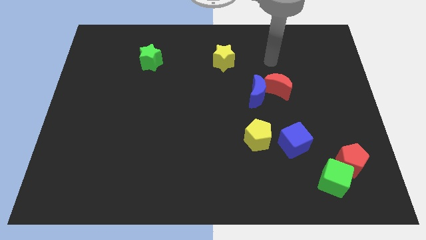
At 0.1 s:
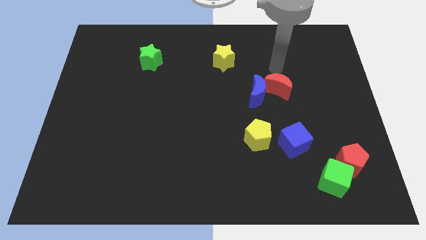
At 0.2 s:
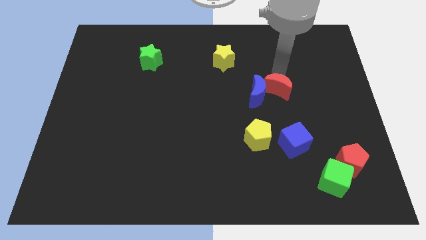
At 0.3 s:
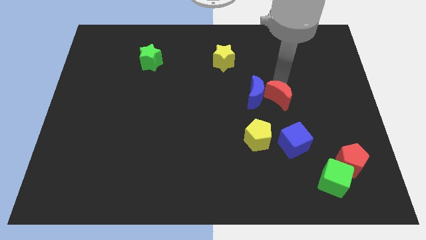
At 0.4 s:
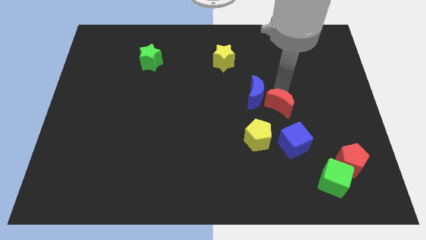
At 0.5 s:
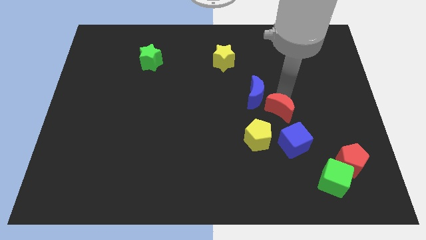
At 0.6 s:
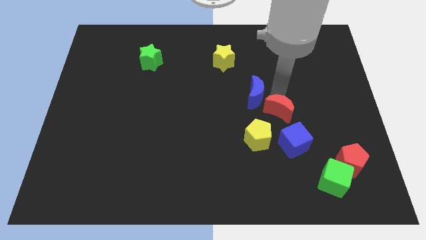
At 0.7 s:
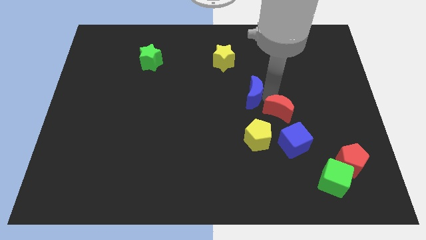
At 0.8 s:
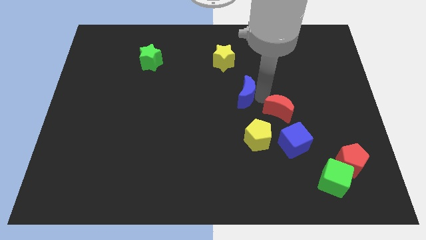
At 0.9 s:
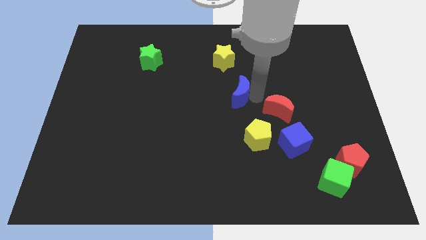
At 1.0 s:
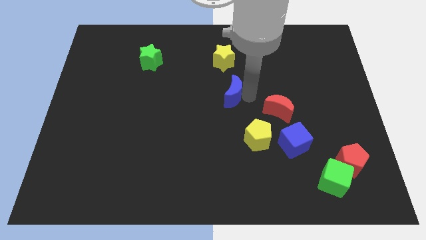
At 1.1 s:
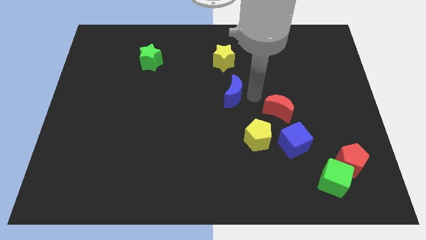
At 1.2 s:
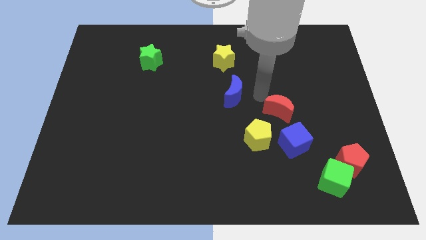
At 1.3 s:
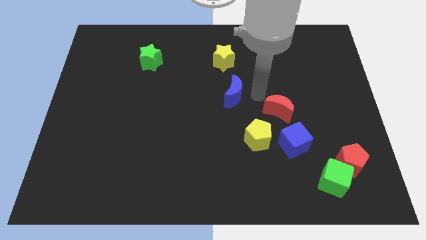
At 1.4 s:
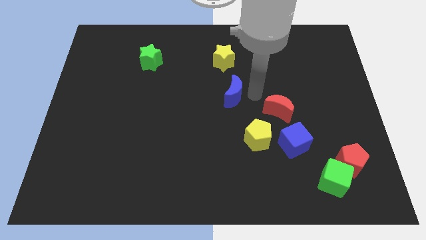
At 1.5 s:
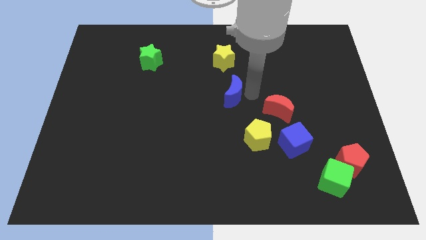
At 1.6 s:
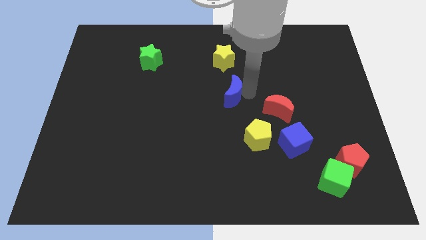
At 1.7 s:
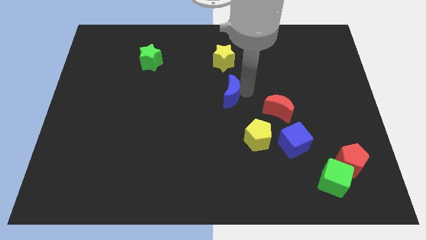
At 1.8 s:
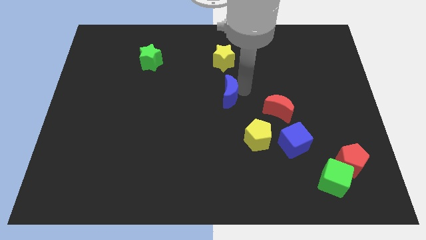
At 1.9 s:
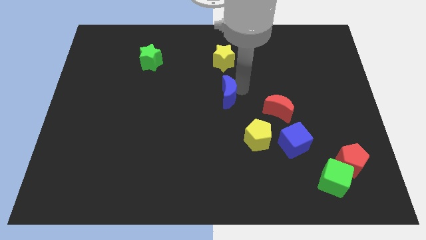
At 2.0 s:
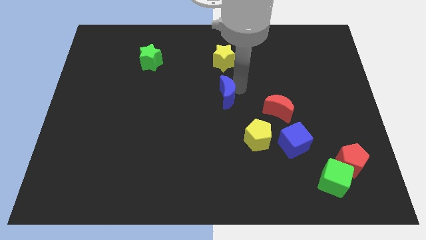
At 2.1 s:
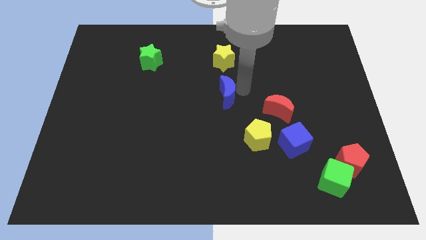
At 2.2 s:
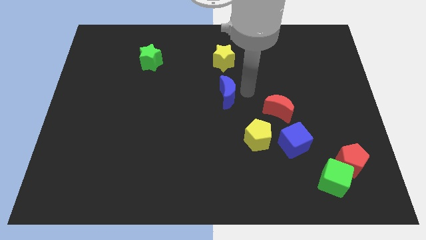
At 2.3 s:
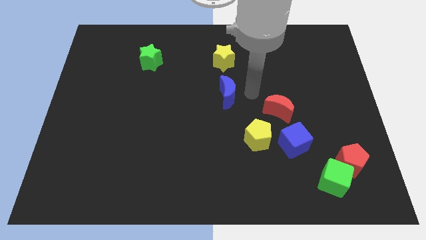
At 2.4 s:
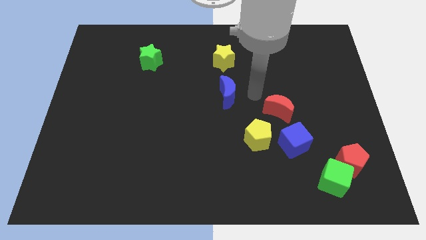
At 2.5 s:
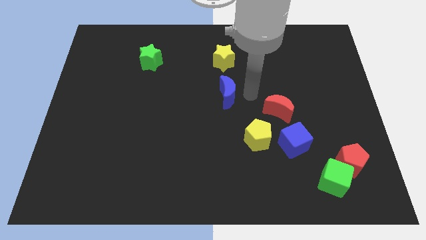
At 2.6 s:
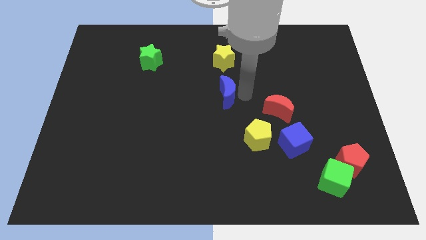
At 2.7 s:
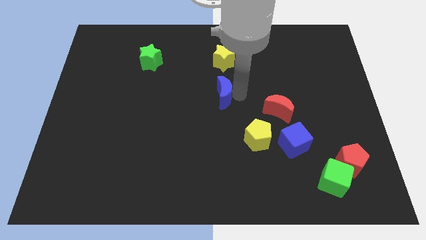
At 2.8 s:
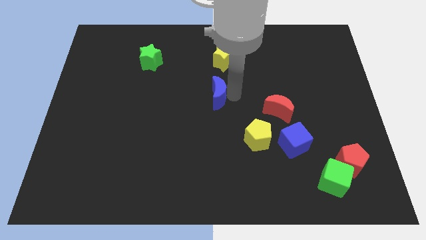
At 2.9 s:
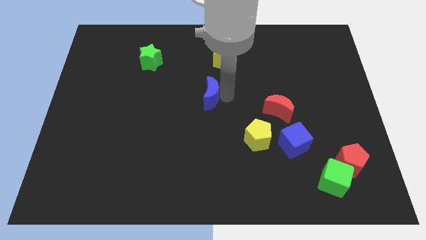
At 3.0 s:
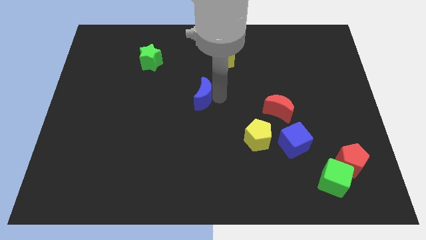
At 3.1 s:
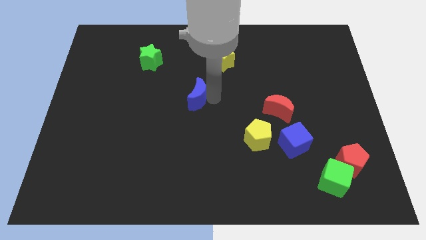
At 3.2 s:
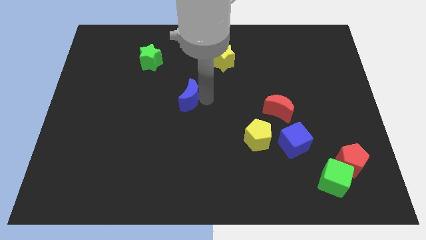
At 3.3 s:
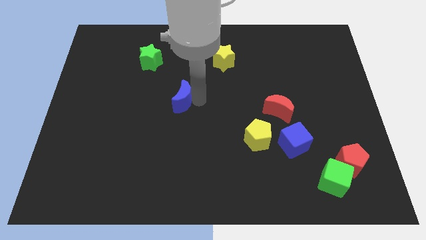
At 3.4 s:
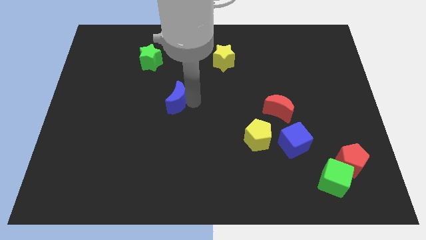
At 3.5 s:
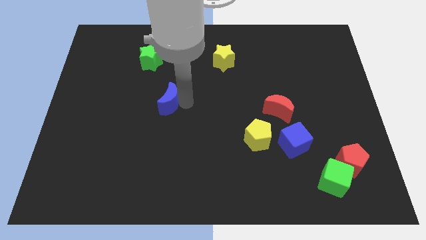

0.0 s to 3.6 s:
slide the blue moon to the left

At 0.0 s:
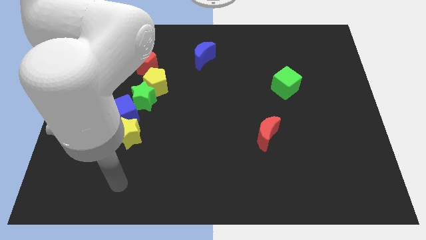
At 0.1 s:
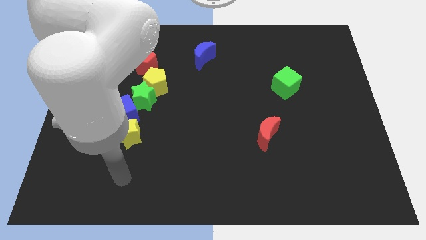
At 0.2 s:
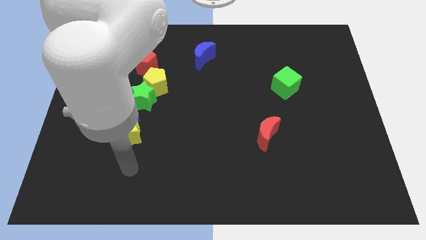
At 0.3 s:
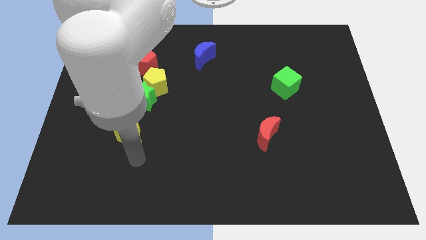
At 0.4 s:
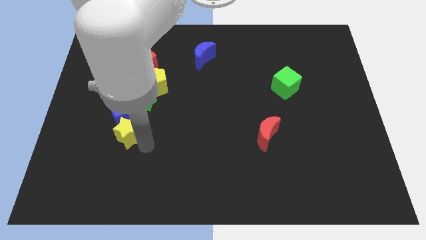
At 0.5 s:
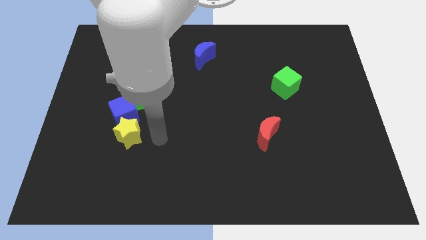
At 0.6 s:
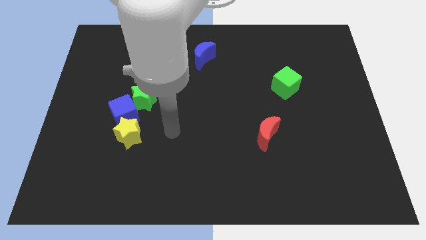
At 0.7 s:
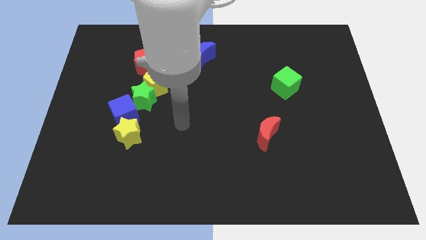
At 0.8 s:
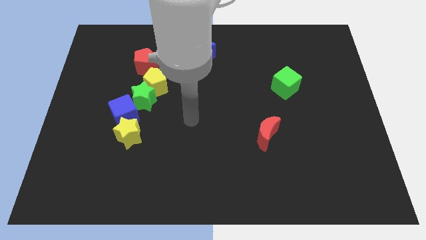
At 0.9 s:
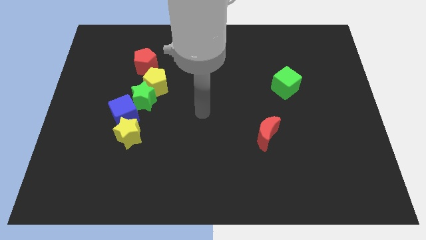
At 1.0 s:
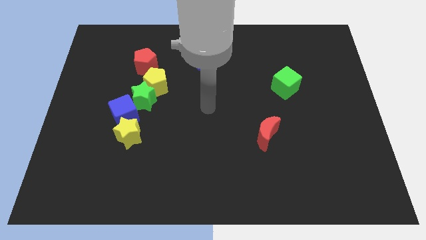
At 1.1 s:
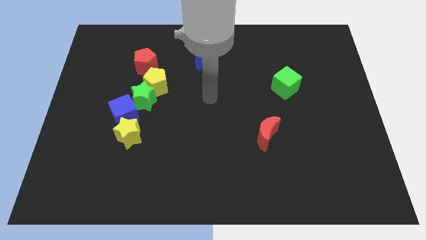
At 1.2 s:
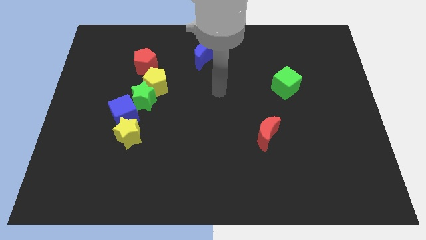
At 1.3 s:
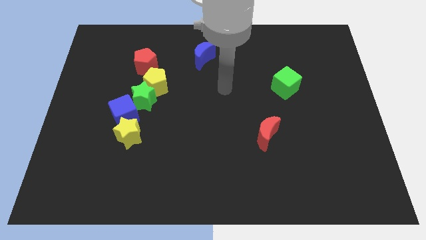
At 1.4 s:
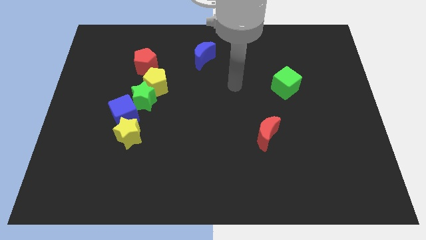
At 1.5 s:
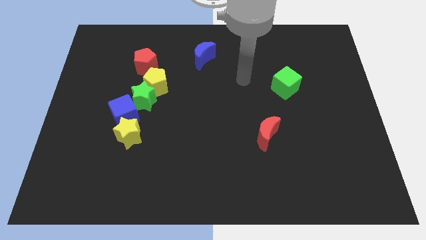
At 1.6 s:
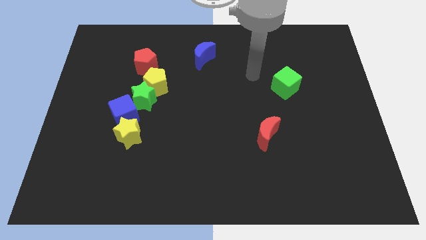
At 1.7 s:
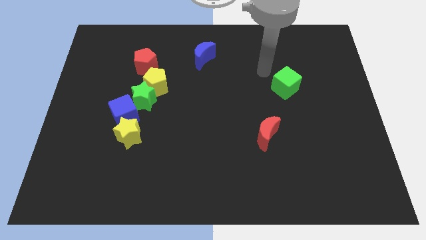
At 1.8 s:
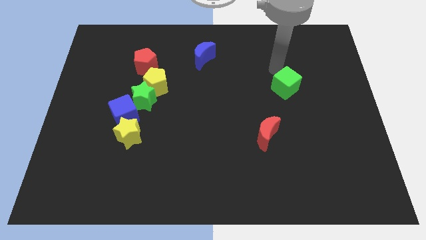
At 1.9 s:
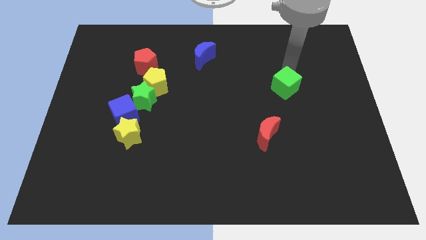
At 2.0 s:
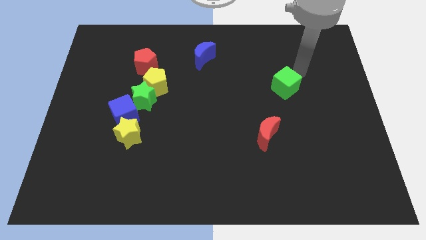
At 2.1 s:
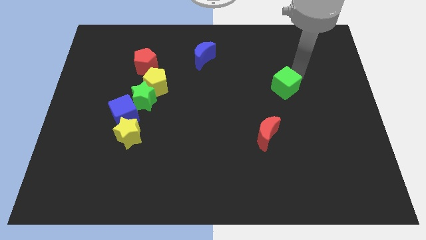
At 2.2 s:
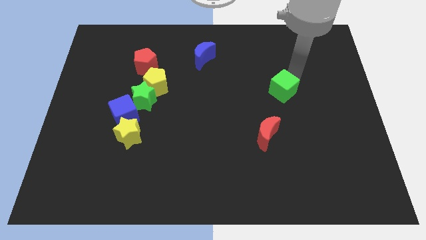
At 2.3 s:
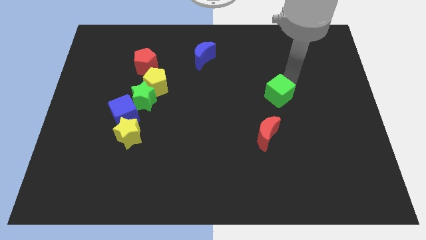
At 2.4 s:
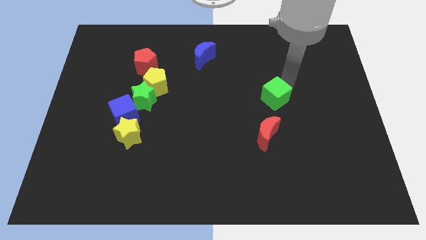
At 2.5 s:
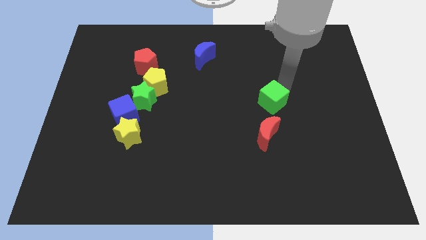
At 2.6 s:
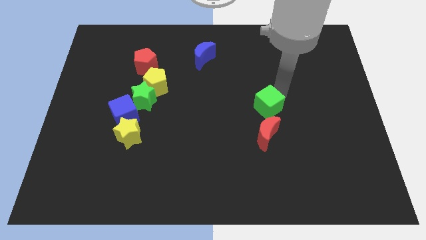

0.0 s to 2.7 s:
slide the green cube down and then to the left a little

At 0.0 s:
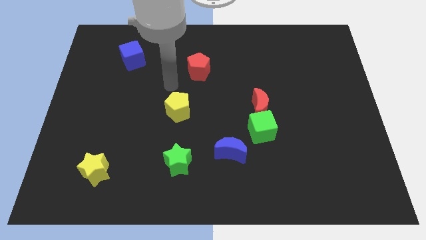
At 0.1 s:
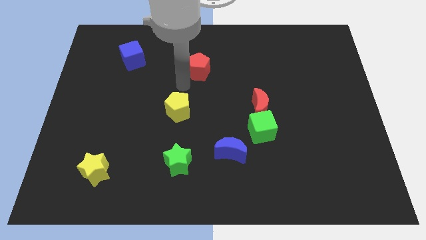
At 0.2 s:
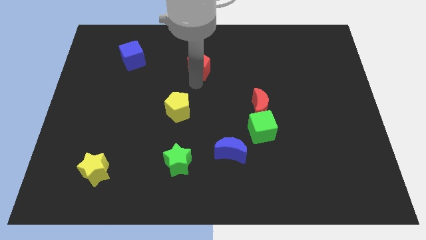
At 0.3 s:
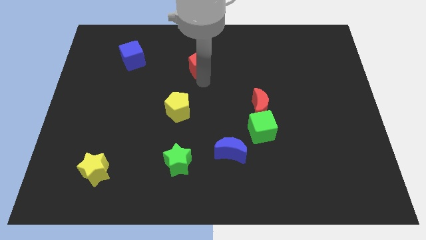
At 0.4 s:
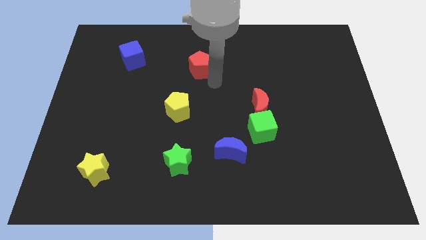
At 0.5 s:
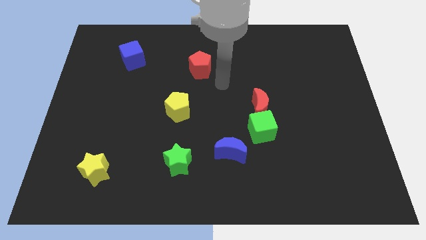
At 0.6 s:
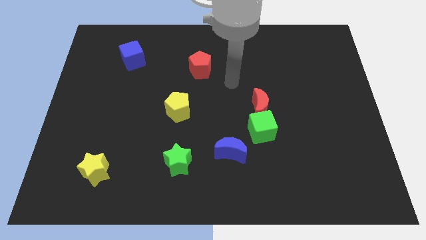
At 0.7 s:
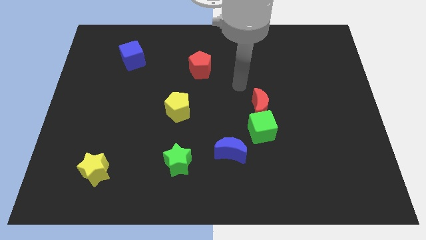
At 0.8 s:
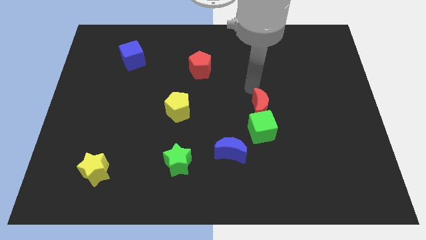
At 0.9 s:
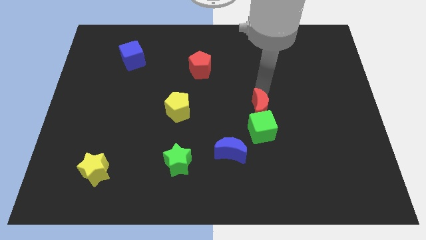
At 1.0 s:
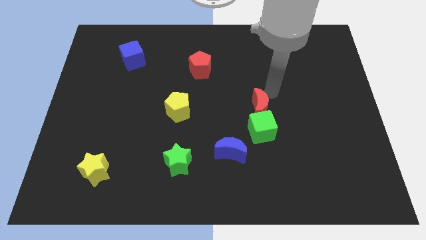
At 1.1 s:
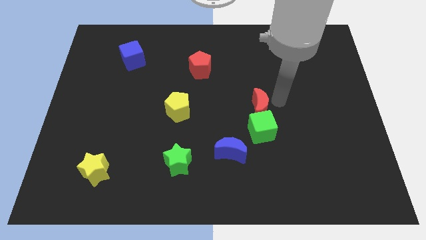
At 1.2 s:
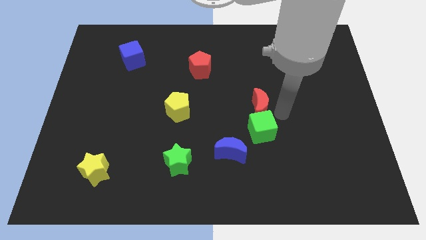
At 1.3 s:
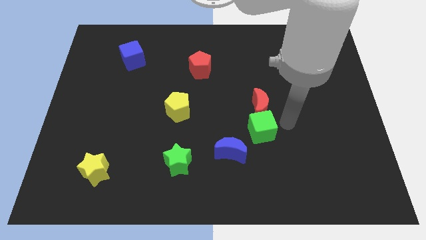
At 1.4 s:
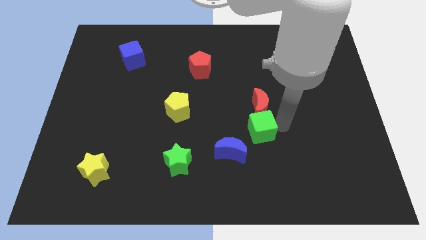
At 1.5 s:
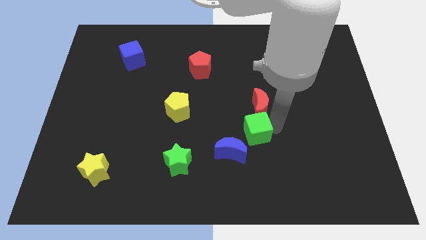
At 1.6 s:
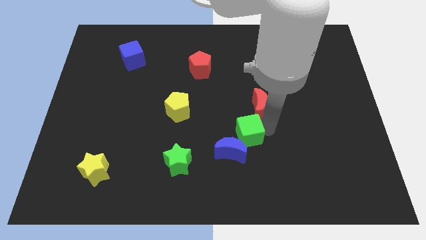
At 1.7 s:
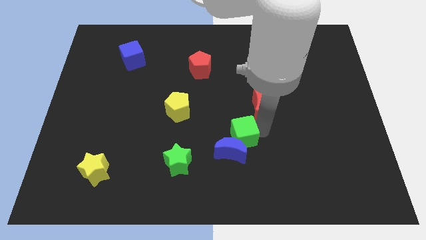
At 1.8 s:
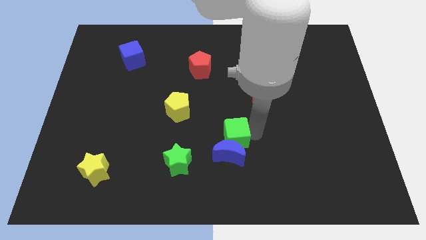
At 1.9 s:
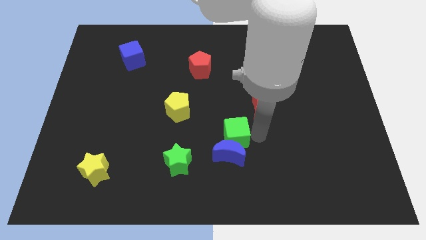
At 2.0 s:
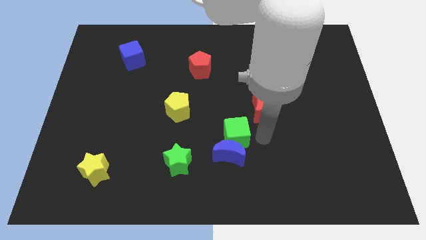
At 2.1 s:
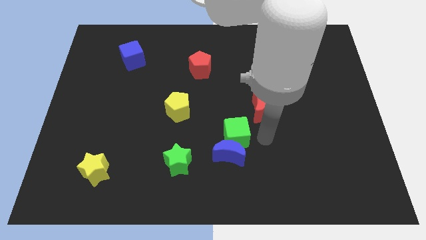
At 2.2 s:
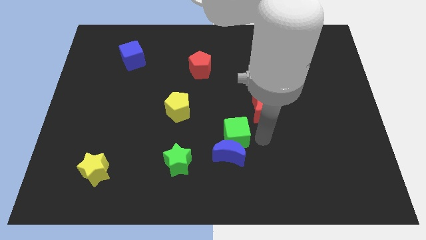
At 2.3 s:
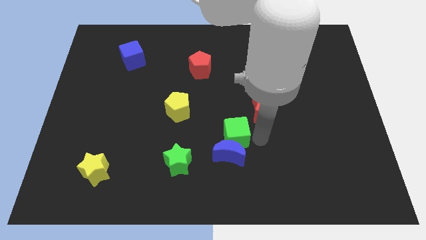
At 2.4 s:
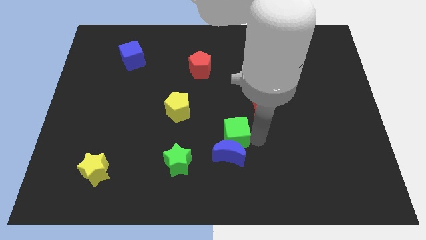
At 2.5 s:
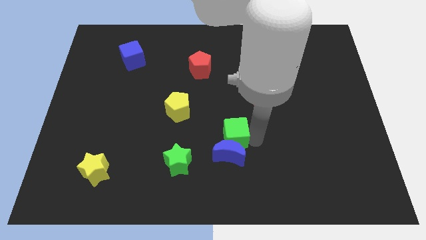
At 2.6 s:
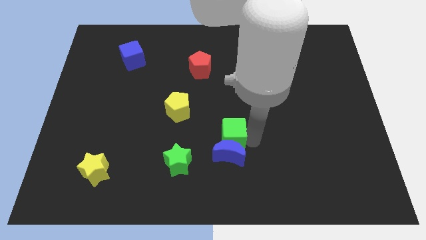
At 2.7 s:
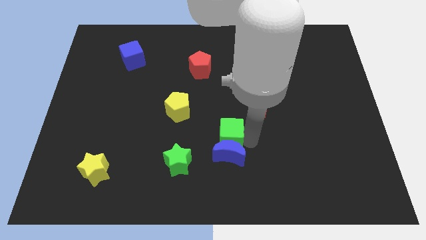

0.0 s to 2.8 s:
move the green cube slightly to the left
